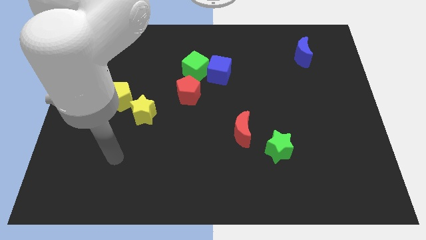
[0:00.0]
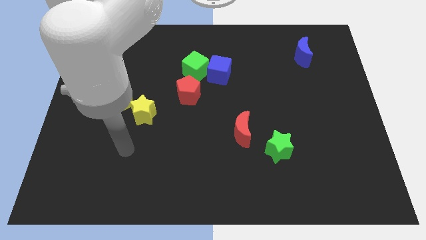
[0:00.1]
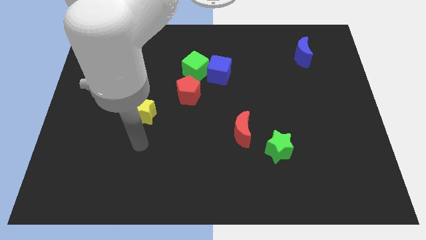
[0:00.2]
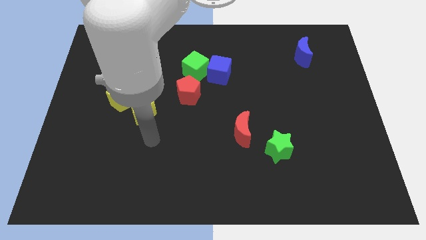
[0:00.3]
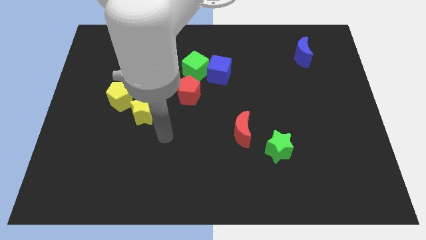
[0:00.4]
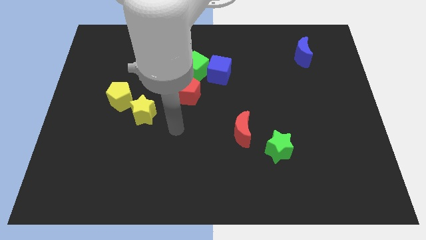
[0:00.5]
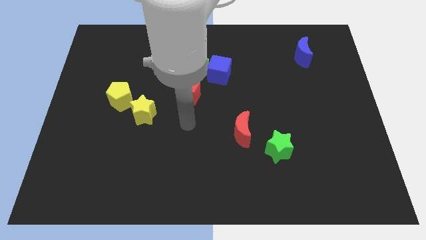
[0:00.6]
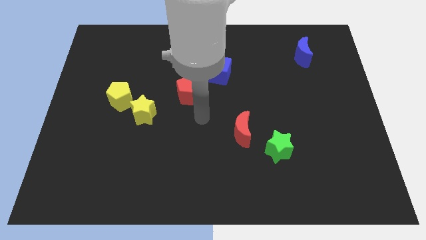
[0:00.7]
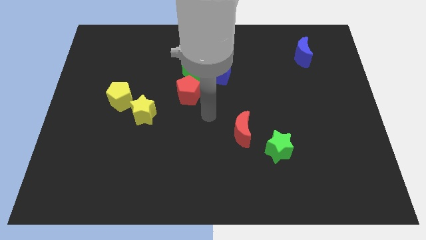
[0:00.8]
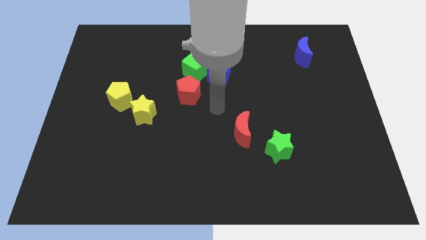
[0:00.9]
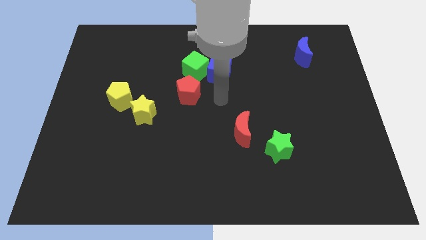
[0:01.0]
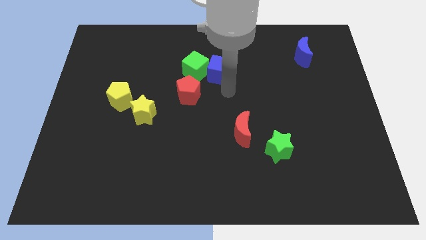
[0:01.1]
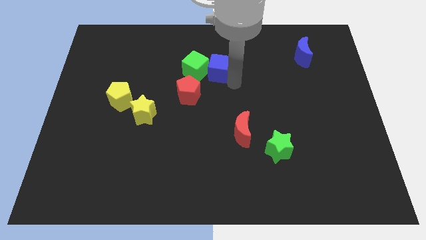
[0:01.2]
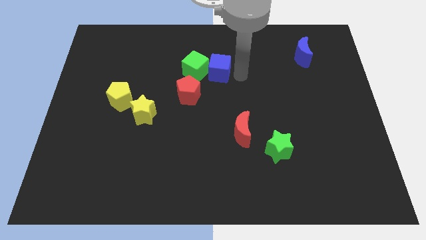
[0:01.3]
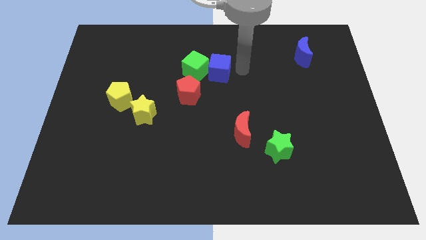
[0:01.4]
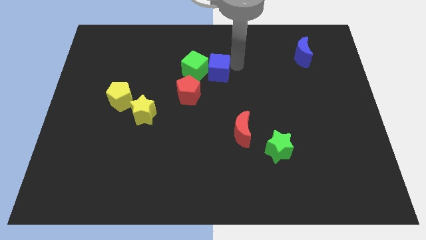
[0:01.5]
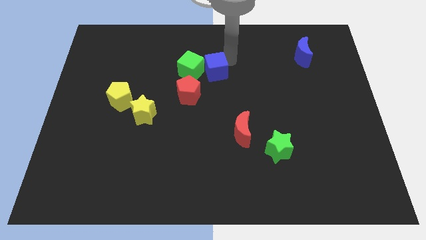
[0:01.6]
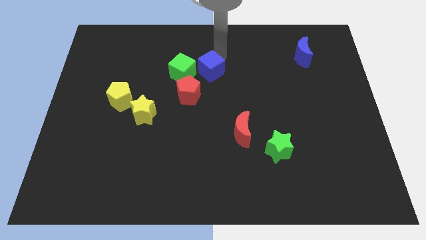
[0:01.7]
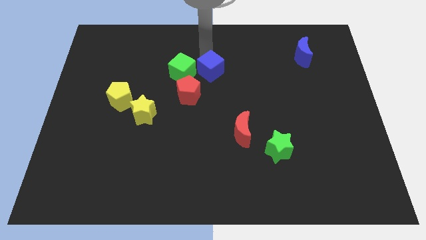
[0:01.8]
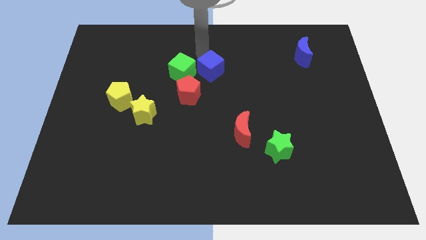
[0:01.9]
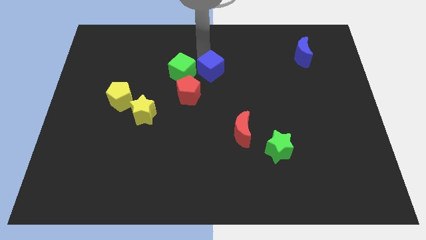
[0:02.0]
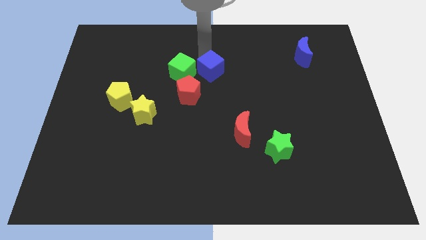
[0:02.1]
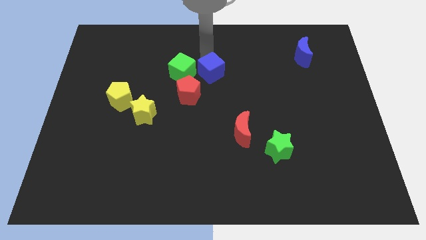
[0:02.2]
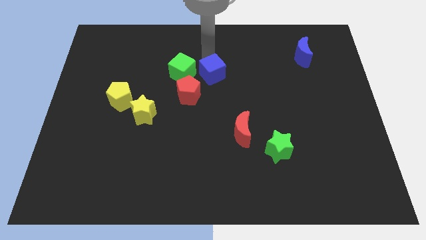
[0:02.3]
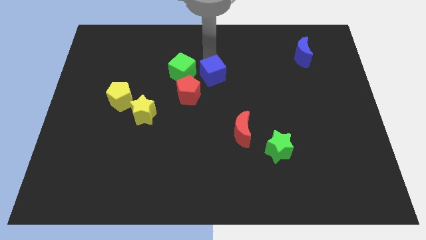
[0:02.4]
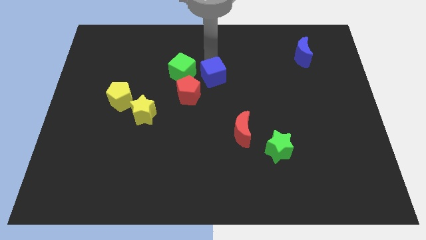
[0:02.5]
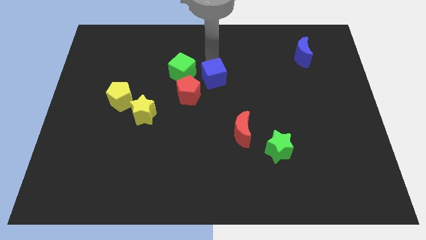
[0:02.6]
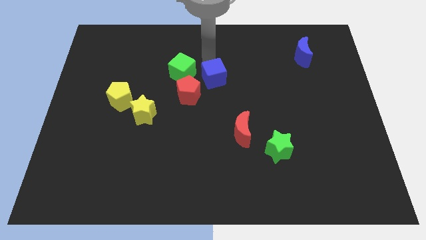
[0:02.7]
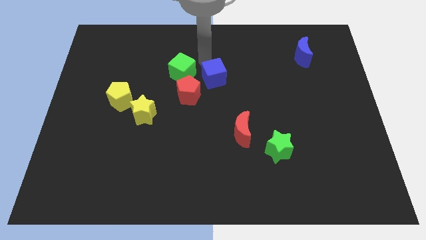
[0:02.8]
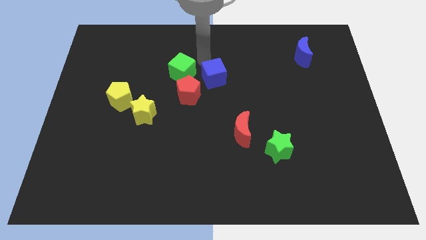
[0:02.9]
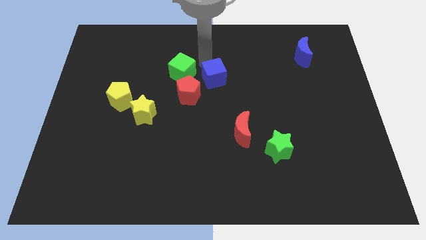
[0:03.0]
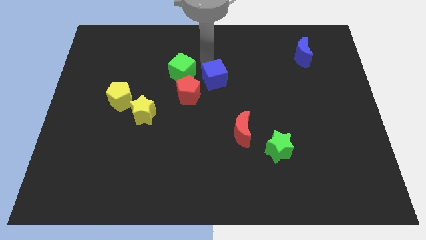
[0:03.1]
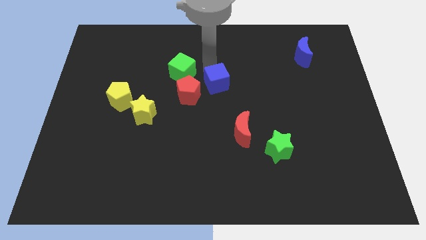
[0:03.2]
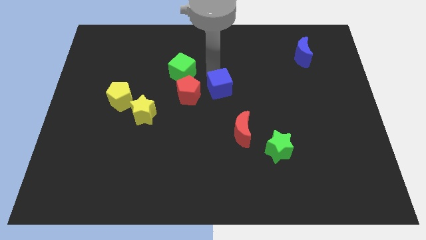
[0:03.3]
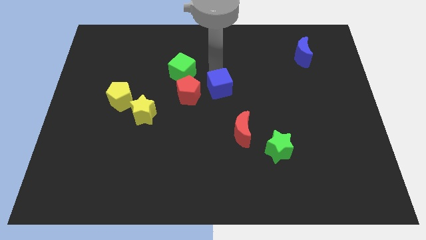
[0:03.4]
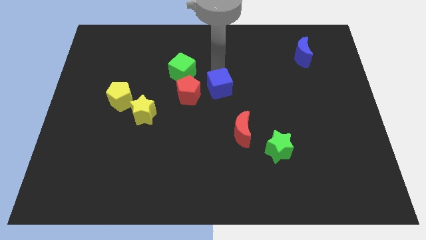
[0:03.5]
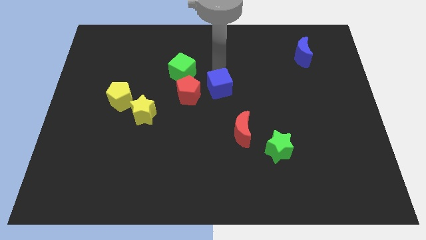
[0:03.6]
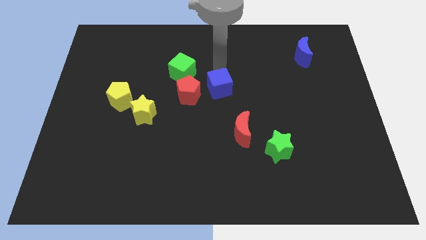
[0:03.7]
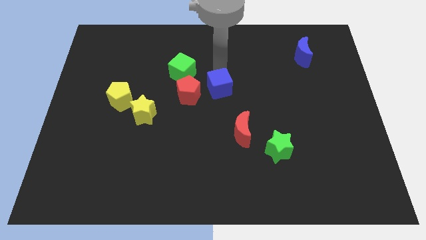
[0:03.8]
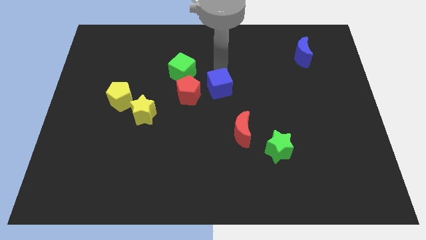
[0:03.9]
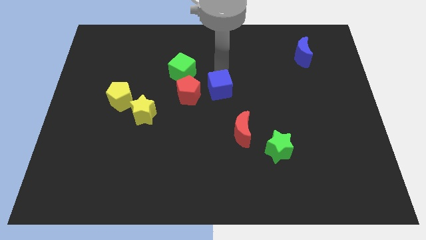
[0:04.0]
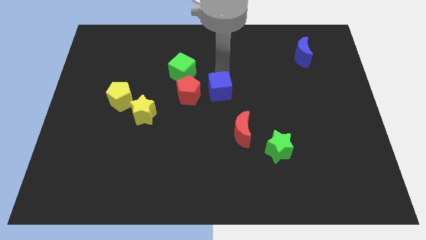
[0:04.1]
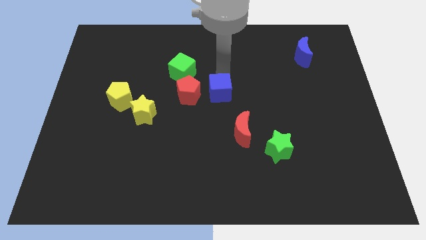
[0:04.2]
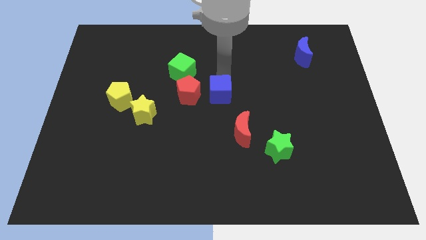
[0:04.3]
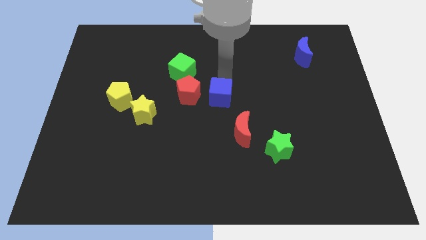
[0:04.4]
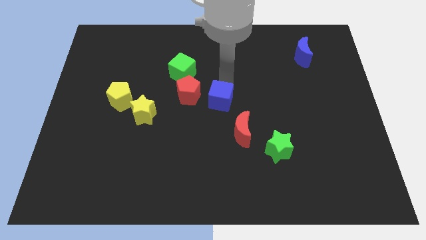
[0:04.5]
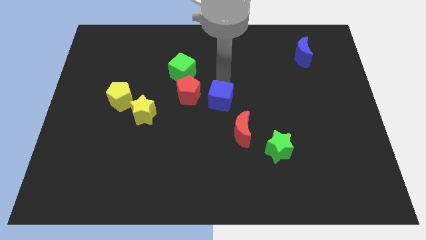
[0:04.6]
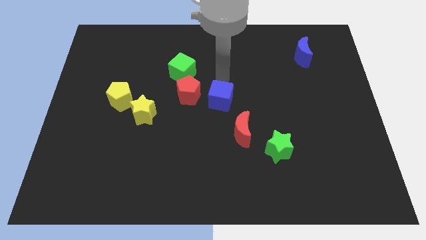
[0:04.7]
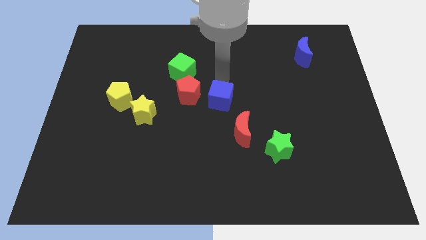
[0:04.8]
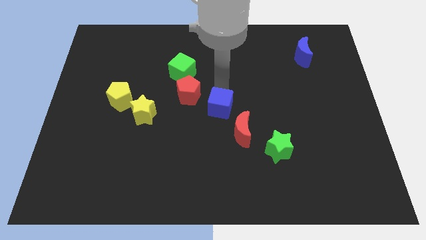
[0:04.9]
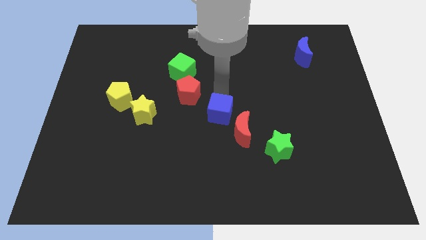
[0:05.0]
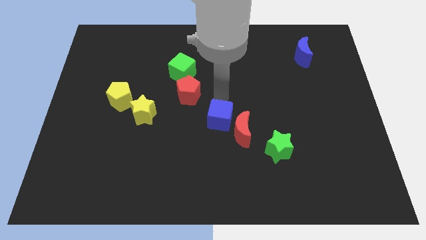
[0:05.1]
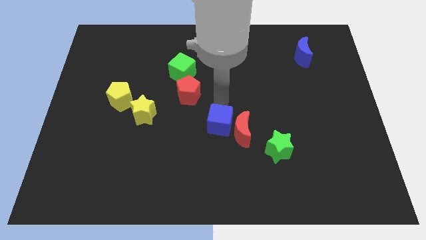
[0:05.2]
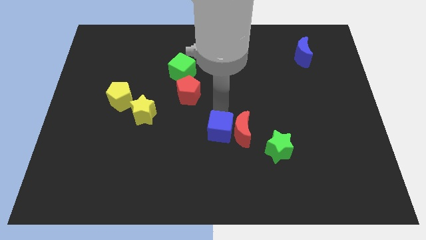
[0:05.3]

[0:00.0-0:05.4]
slide the blue cube diagonally down and to the left of the red moon

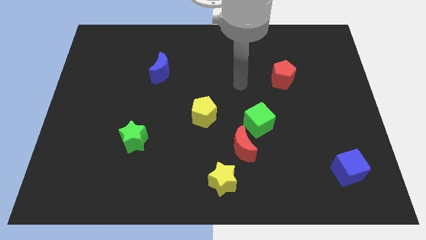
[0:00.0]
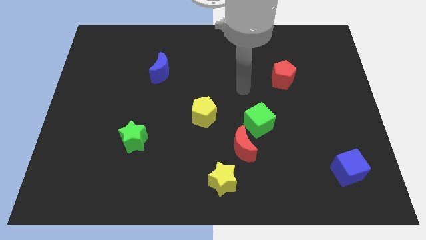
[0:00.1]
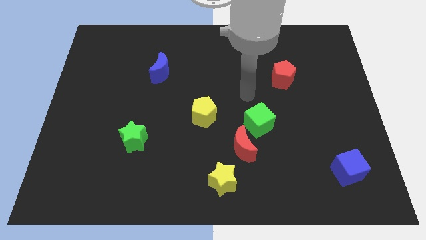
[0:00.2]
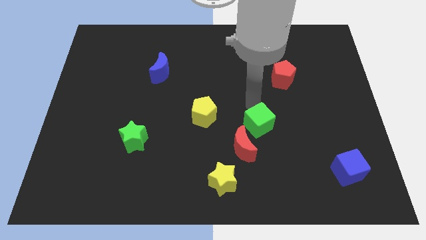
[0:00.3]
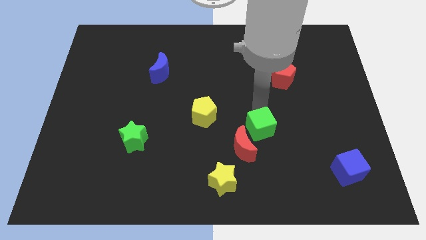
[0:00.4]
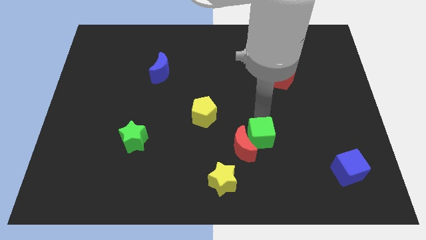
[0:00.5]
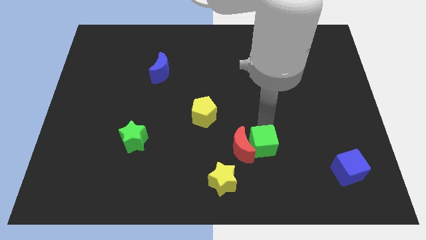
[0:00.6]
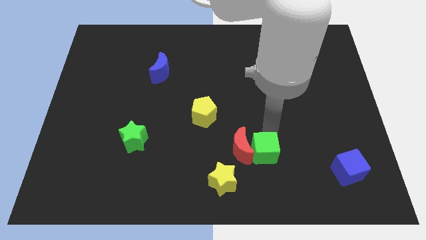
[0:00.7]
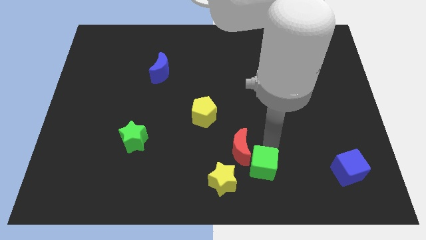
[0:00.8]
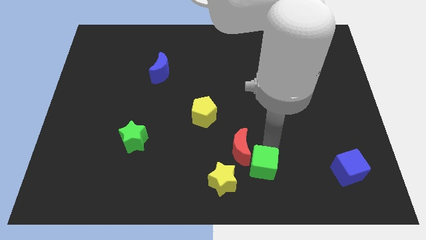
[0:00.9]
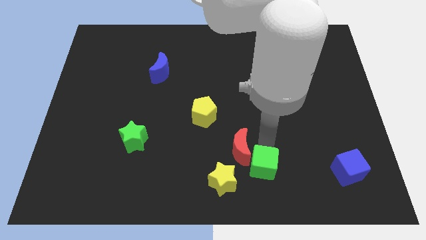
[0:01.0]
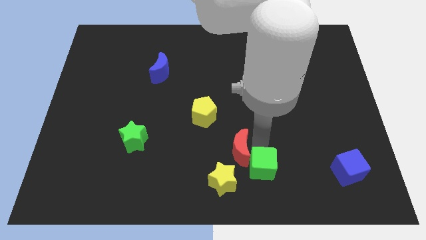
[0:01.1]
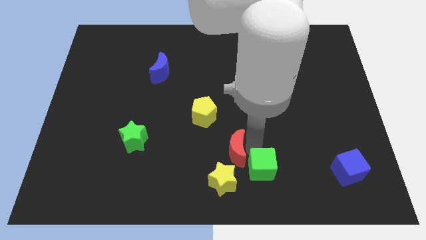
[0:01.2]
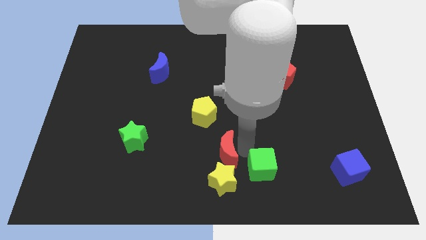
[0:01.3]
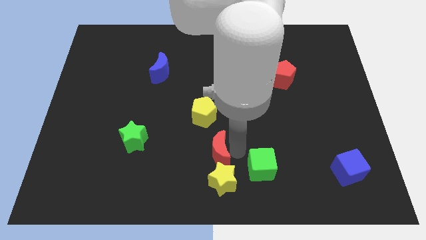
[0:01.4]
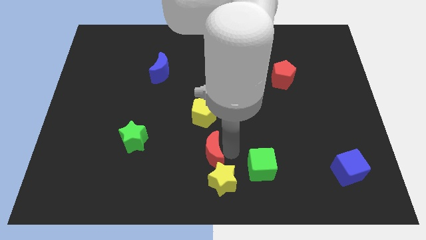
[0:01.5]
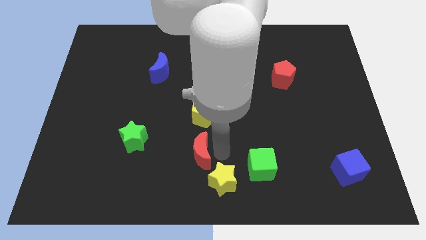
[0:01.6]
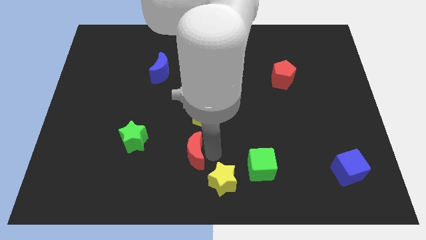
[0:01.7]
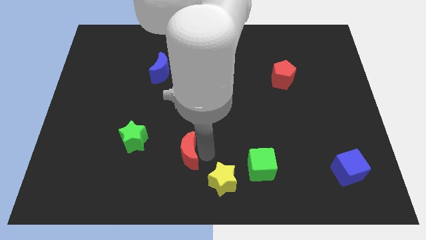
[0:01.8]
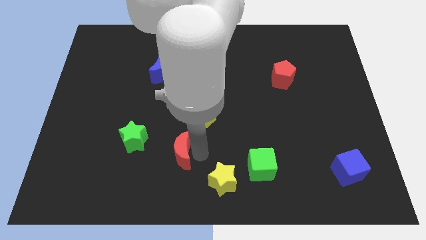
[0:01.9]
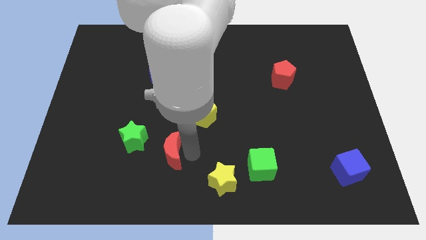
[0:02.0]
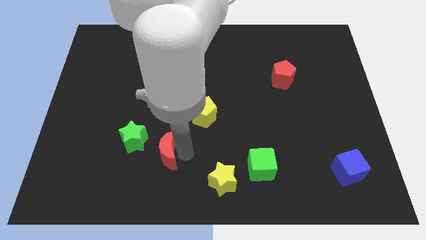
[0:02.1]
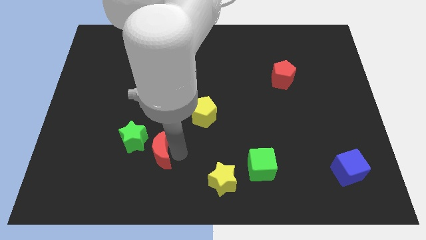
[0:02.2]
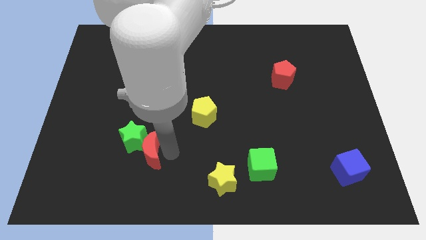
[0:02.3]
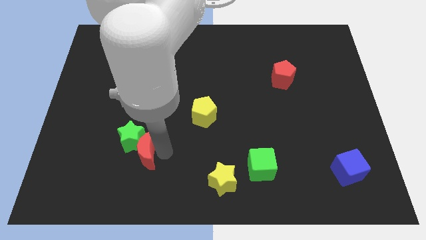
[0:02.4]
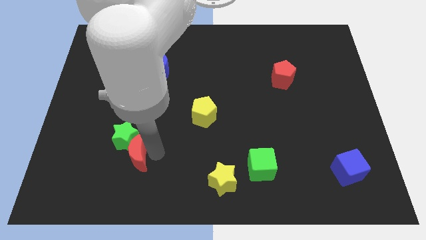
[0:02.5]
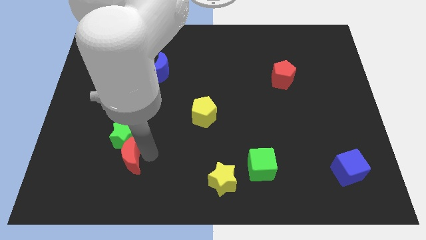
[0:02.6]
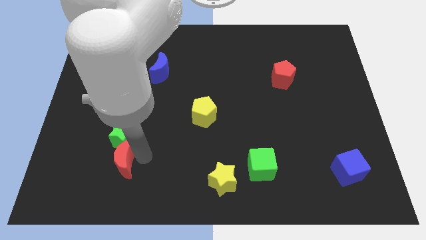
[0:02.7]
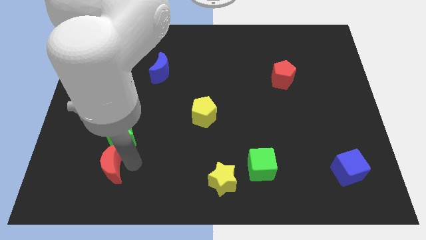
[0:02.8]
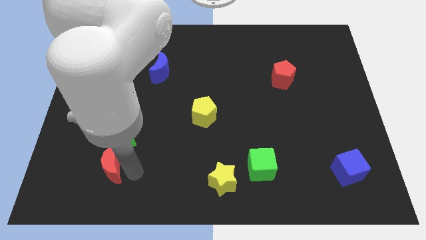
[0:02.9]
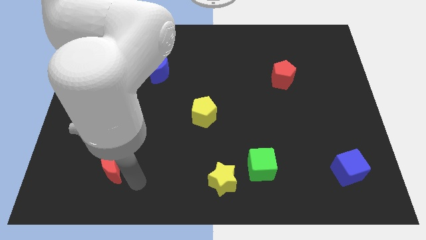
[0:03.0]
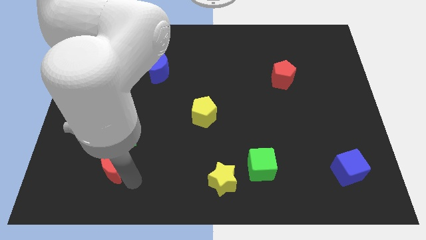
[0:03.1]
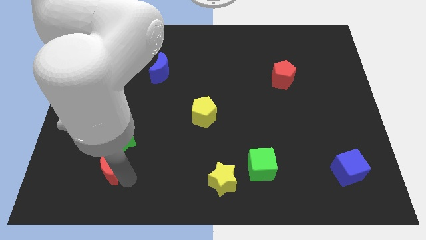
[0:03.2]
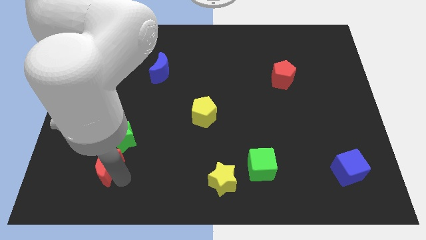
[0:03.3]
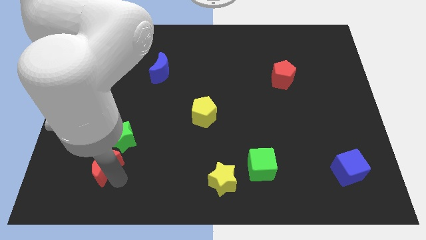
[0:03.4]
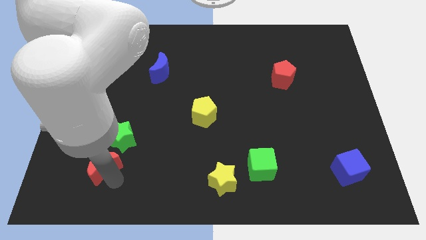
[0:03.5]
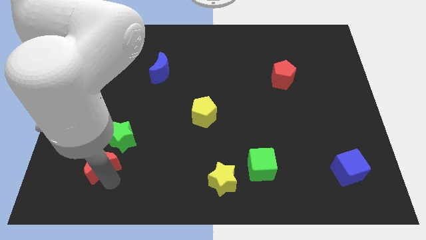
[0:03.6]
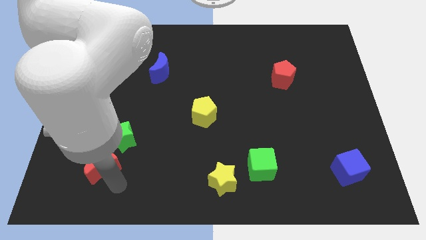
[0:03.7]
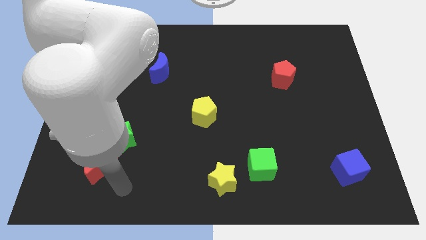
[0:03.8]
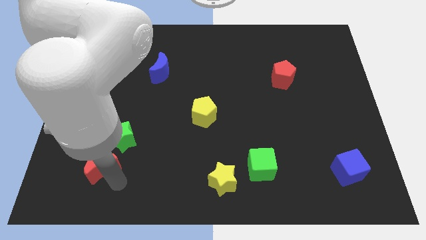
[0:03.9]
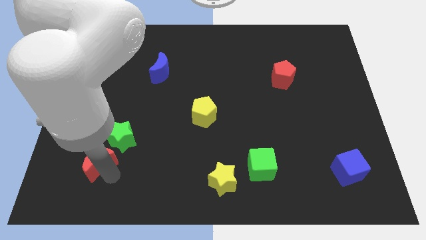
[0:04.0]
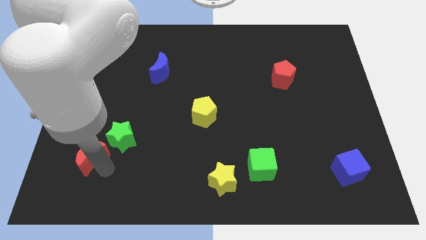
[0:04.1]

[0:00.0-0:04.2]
put the red moon to the left side of the green star
